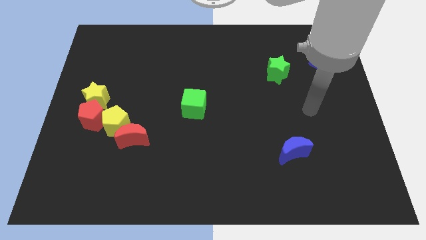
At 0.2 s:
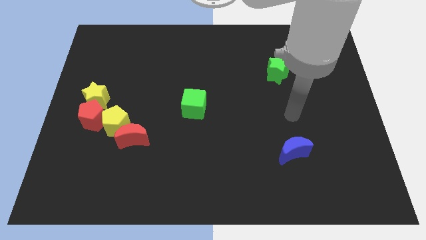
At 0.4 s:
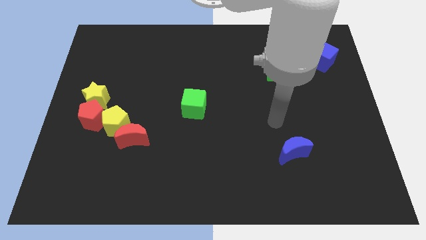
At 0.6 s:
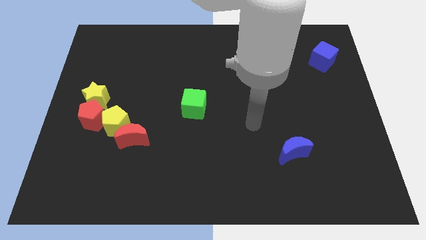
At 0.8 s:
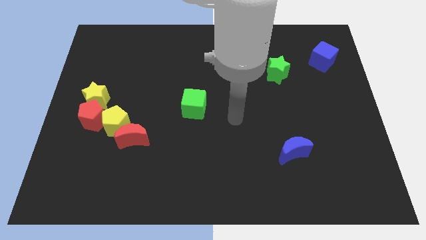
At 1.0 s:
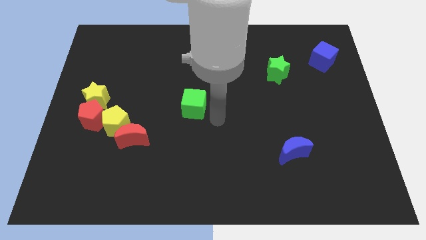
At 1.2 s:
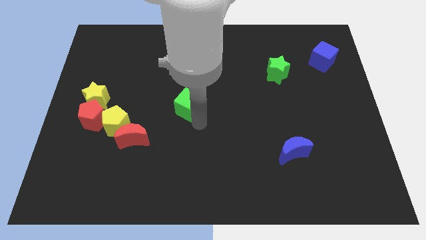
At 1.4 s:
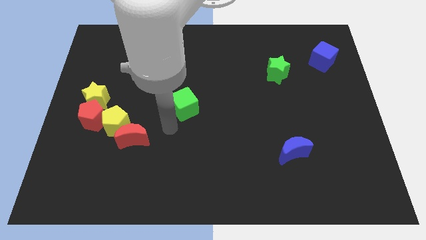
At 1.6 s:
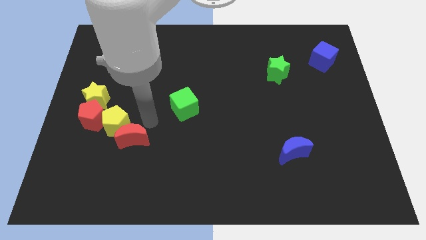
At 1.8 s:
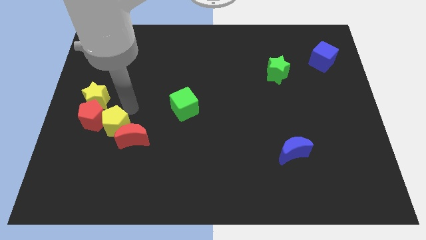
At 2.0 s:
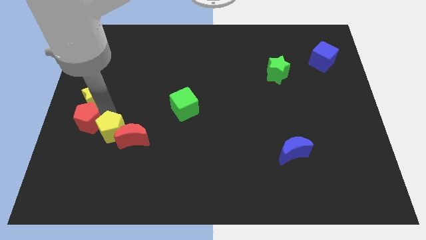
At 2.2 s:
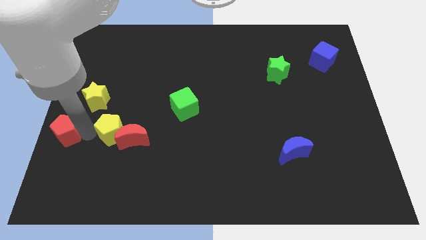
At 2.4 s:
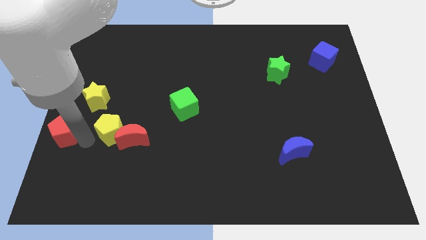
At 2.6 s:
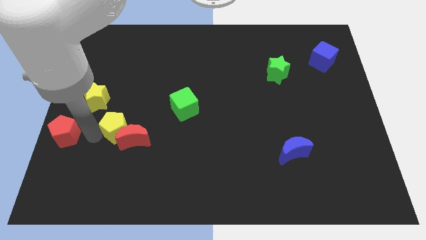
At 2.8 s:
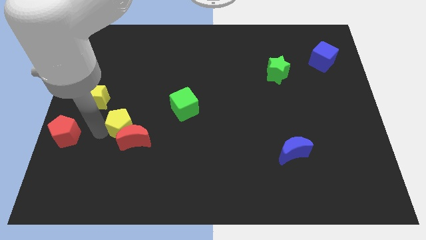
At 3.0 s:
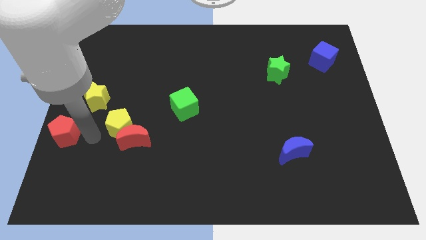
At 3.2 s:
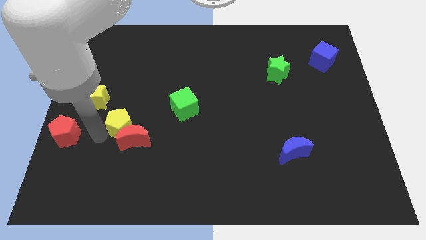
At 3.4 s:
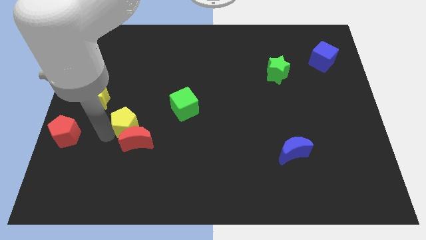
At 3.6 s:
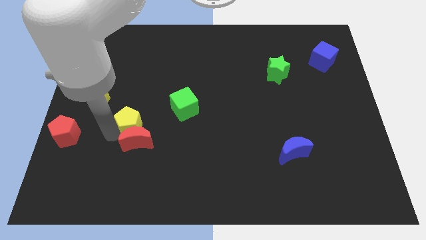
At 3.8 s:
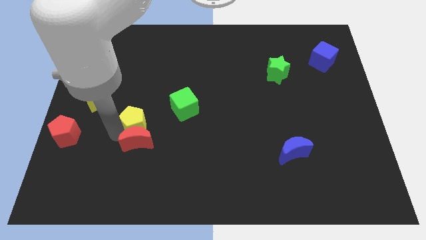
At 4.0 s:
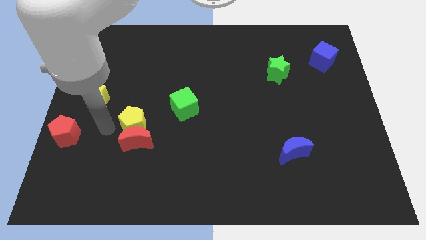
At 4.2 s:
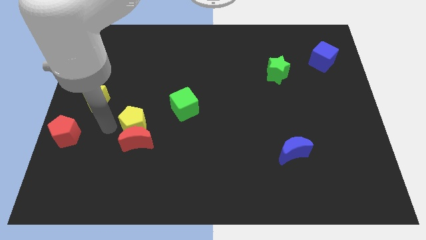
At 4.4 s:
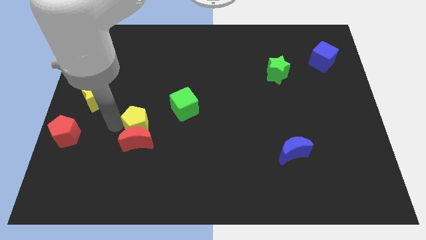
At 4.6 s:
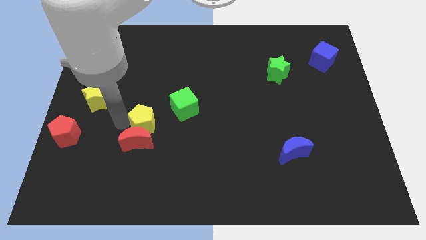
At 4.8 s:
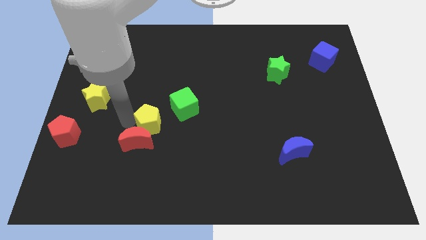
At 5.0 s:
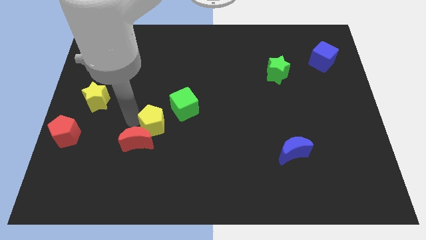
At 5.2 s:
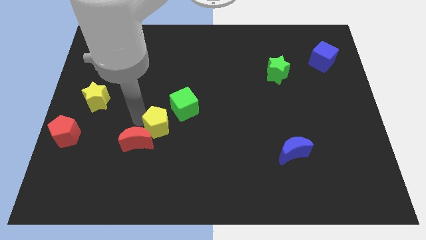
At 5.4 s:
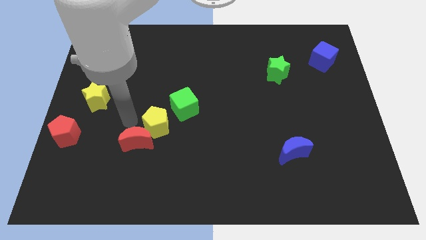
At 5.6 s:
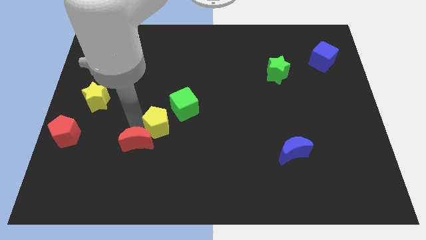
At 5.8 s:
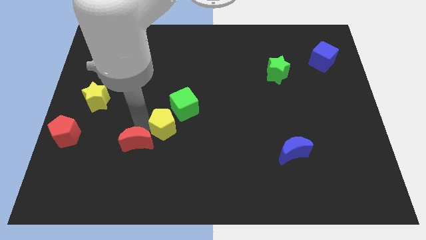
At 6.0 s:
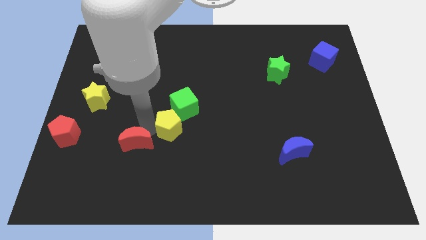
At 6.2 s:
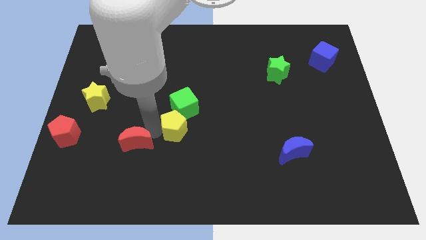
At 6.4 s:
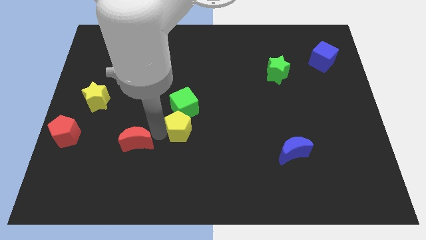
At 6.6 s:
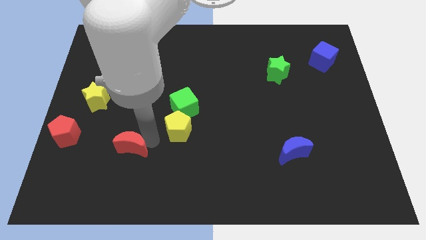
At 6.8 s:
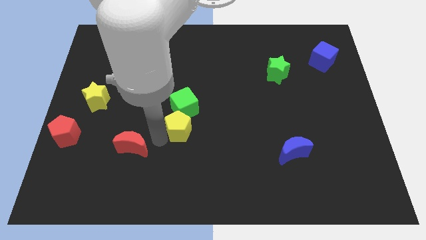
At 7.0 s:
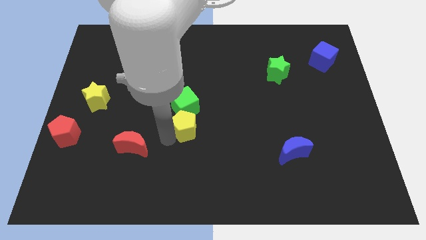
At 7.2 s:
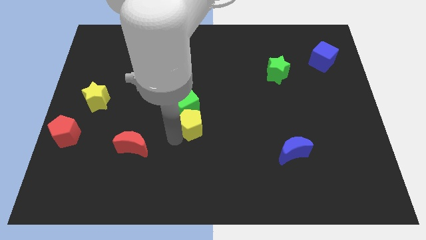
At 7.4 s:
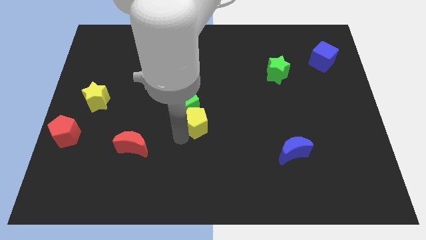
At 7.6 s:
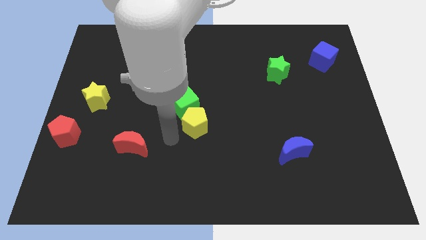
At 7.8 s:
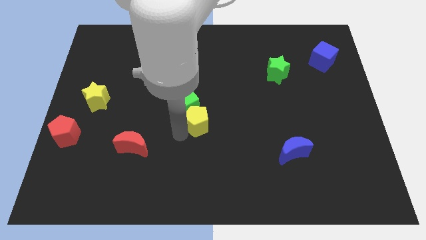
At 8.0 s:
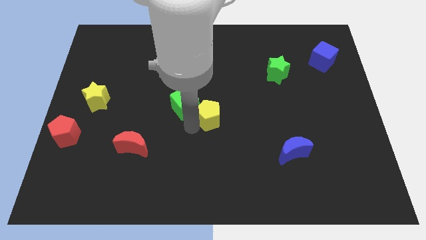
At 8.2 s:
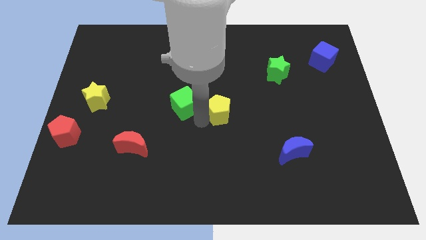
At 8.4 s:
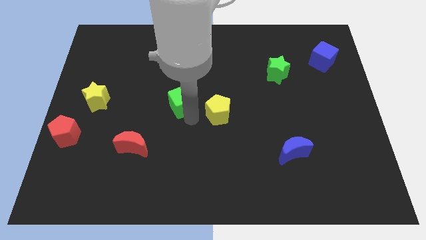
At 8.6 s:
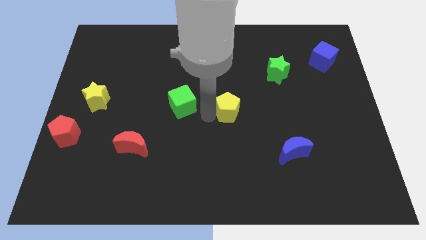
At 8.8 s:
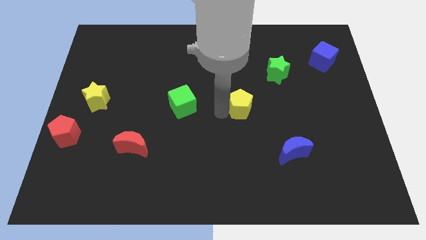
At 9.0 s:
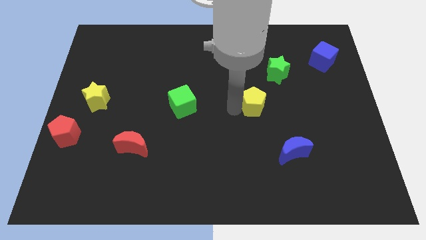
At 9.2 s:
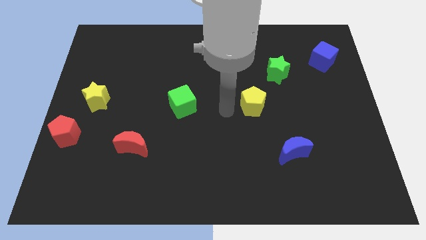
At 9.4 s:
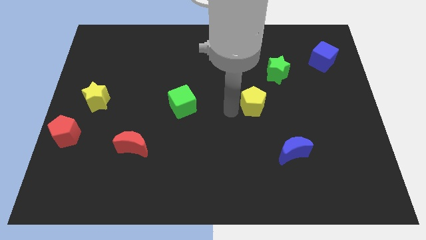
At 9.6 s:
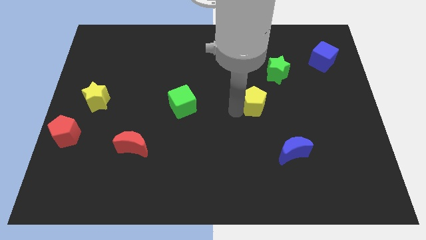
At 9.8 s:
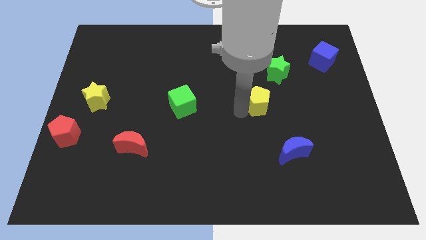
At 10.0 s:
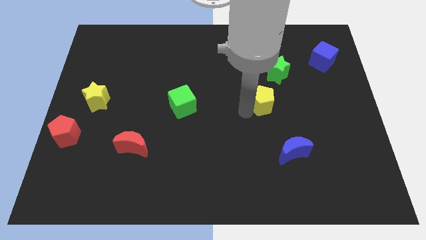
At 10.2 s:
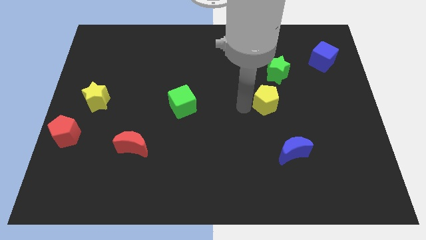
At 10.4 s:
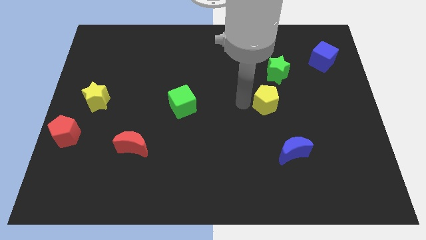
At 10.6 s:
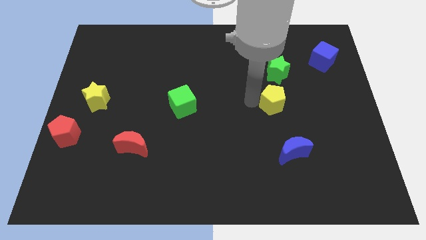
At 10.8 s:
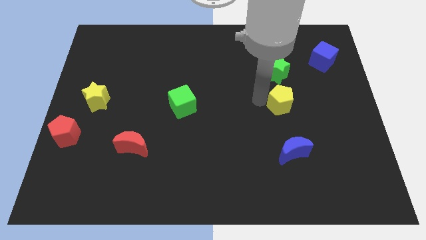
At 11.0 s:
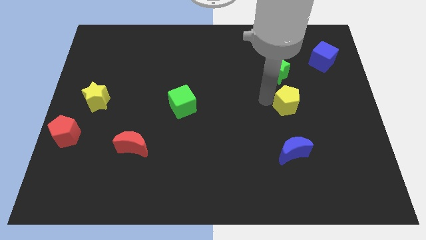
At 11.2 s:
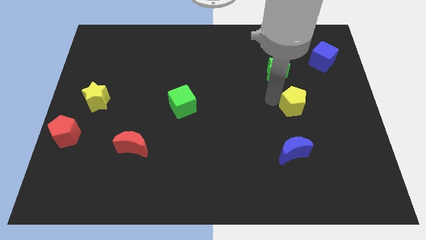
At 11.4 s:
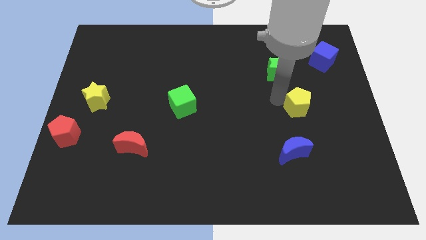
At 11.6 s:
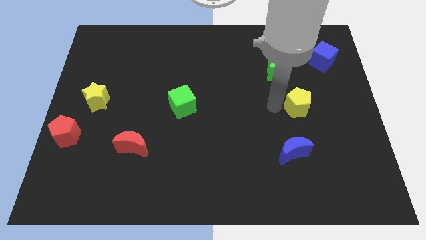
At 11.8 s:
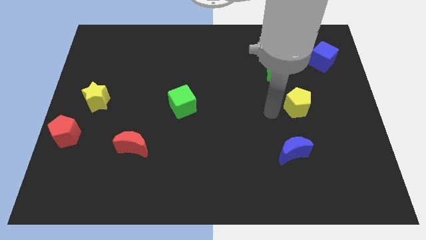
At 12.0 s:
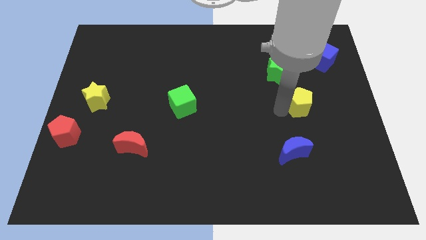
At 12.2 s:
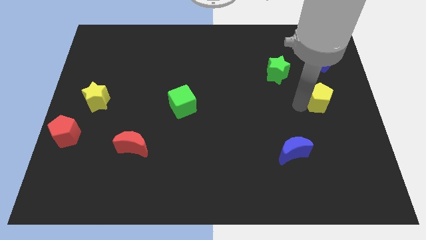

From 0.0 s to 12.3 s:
put the yellow pentagon to the right side
